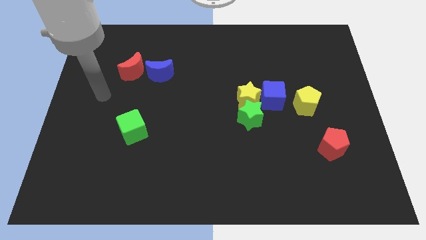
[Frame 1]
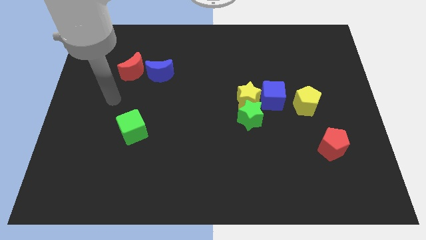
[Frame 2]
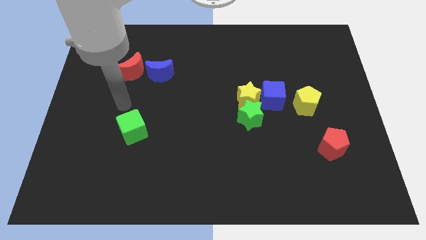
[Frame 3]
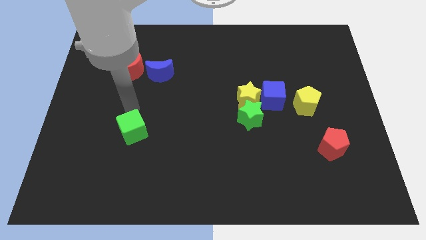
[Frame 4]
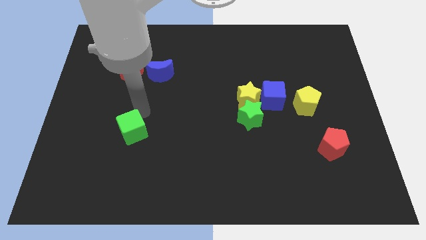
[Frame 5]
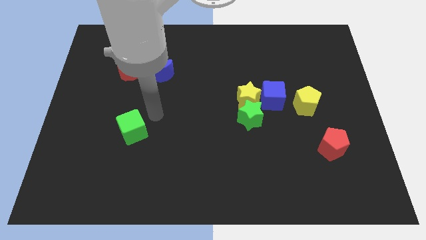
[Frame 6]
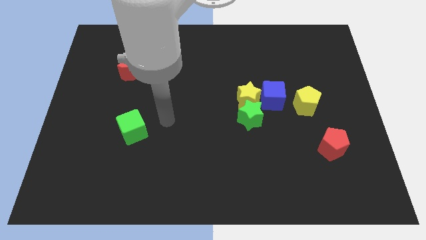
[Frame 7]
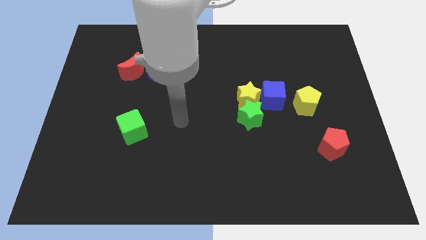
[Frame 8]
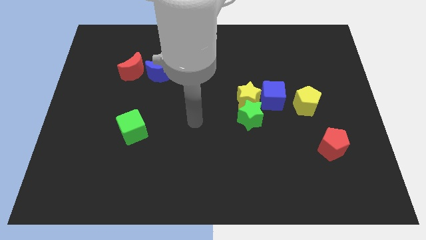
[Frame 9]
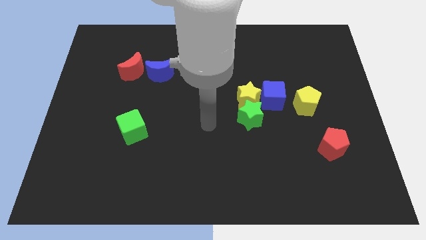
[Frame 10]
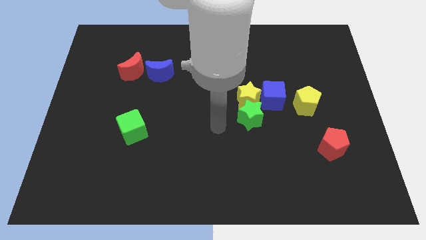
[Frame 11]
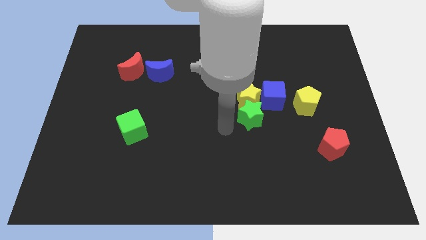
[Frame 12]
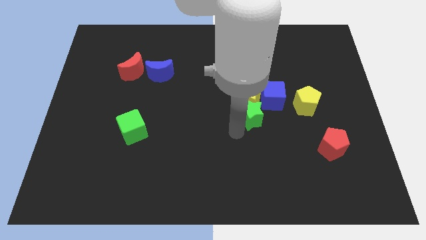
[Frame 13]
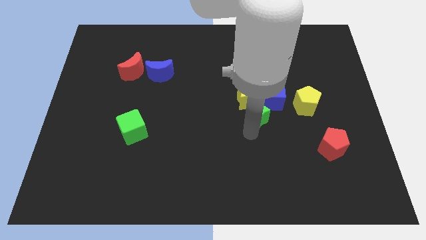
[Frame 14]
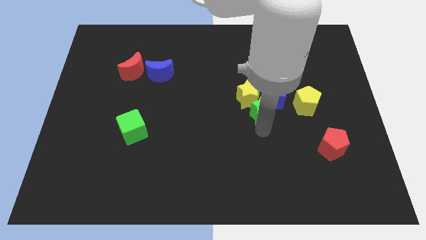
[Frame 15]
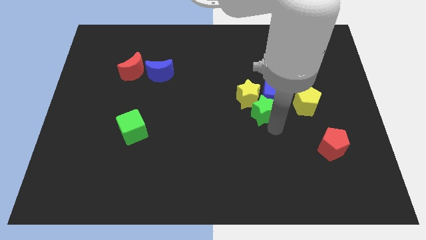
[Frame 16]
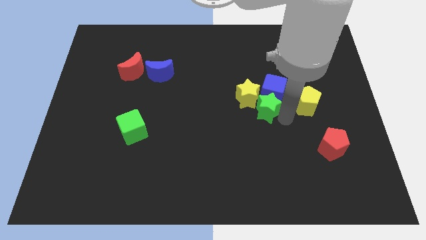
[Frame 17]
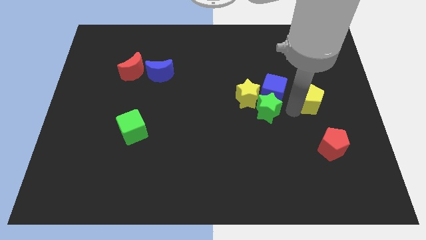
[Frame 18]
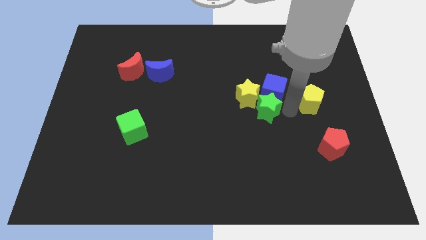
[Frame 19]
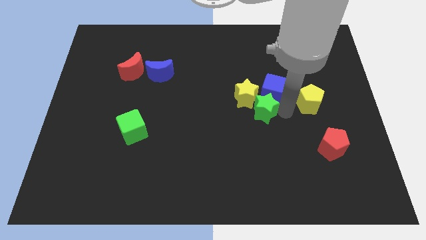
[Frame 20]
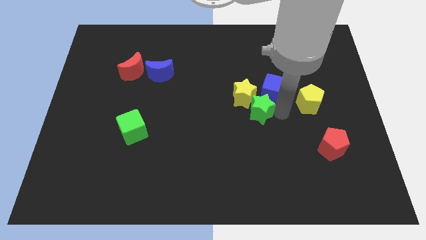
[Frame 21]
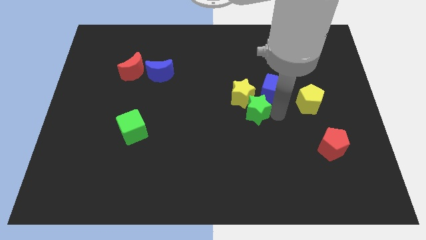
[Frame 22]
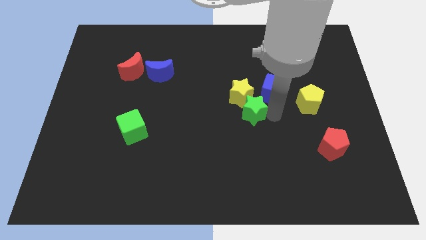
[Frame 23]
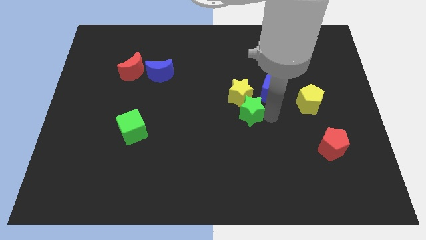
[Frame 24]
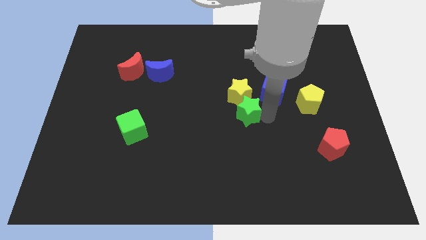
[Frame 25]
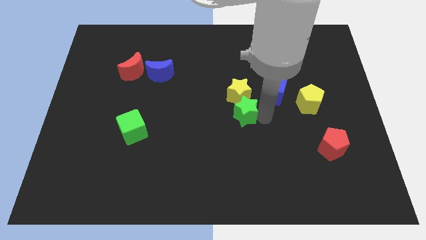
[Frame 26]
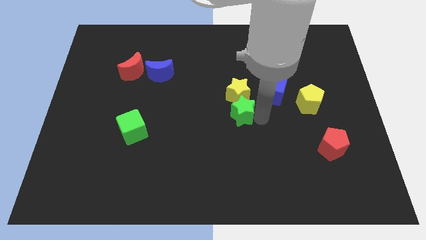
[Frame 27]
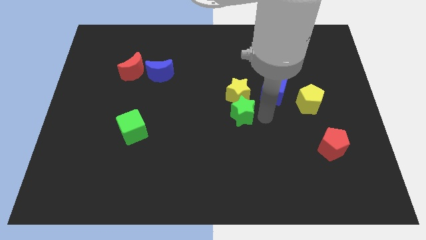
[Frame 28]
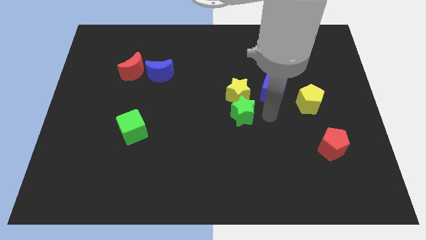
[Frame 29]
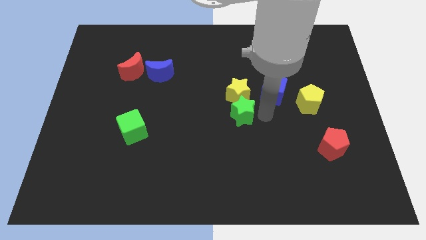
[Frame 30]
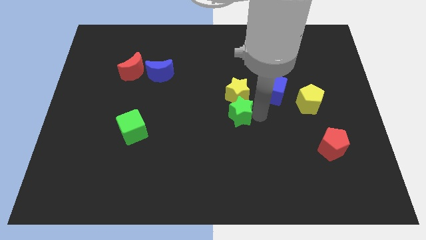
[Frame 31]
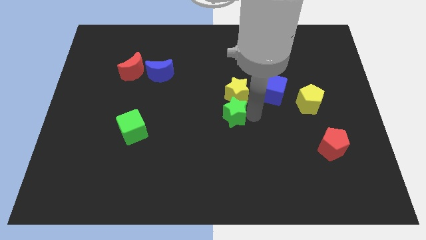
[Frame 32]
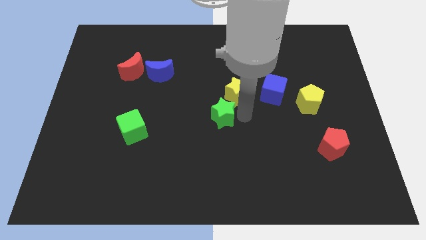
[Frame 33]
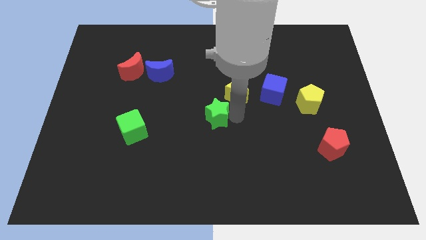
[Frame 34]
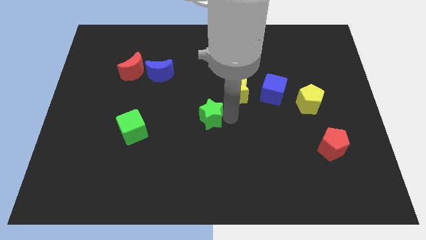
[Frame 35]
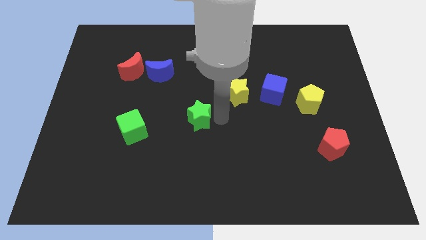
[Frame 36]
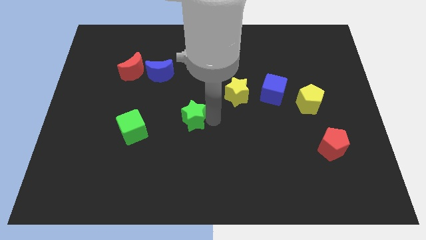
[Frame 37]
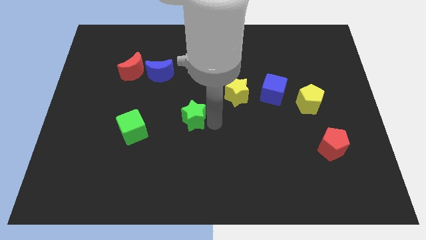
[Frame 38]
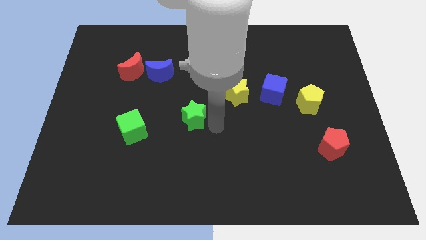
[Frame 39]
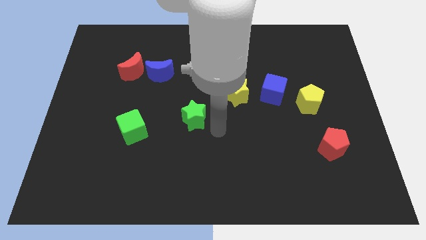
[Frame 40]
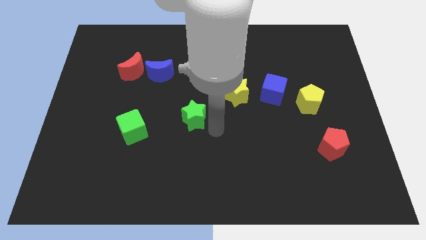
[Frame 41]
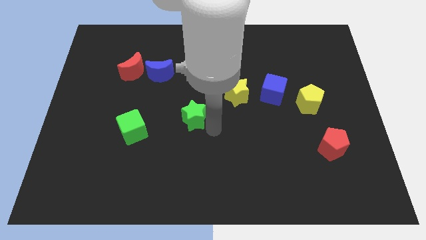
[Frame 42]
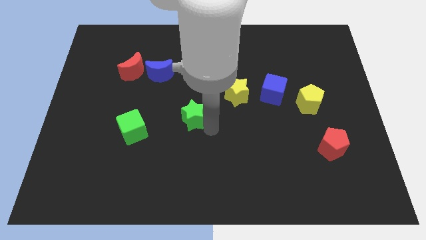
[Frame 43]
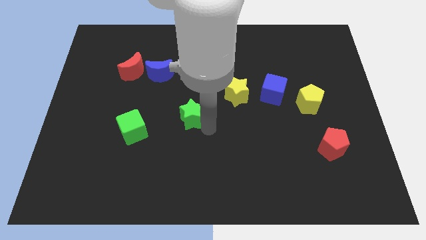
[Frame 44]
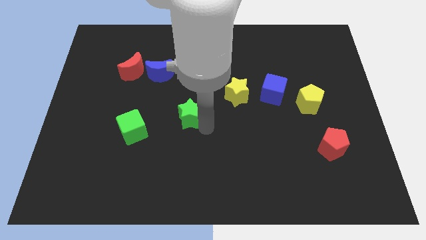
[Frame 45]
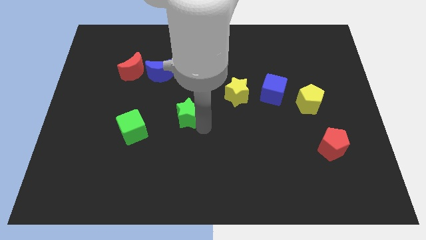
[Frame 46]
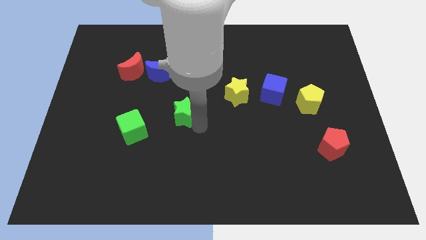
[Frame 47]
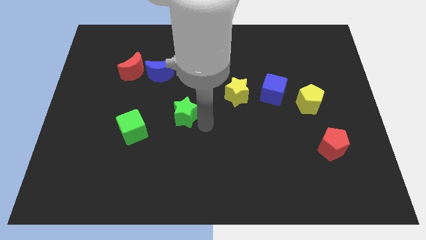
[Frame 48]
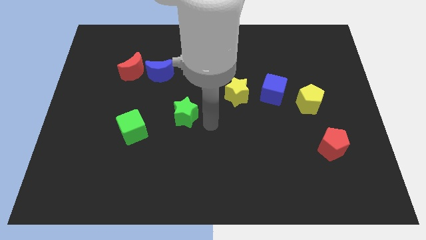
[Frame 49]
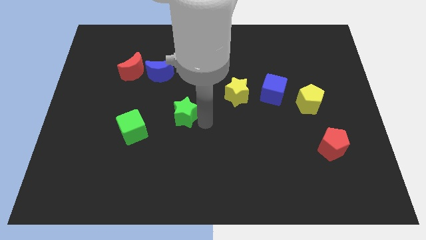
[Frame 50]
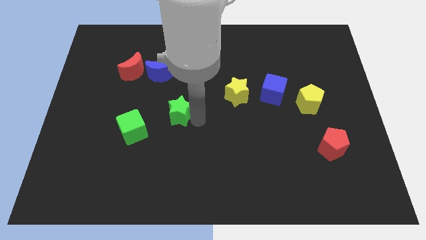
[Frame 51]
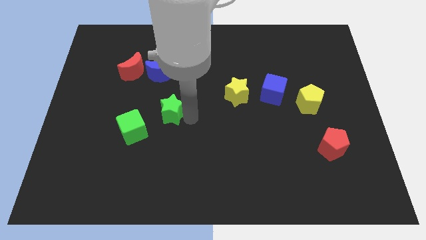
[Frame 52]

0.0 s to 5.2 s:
slide the green star to the bottom side of the blue moon

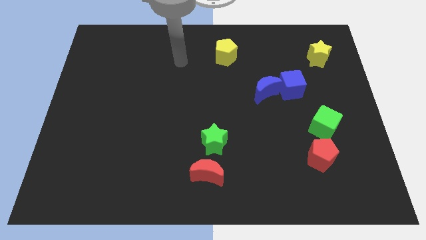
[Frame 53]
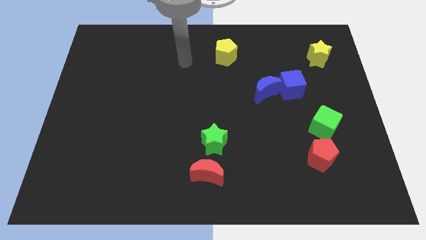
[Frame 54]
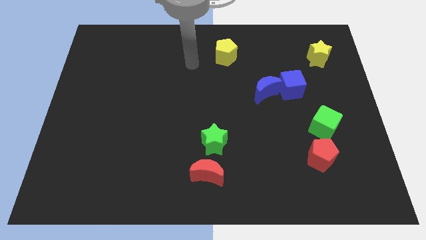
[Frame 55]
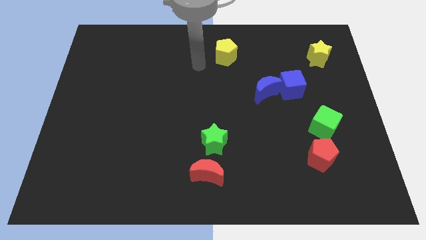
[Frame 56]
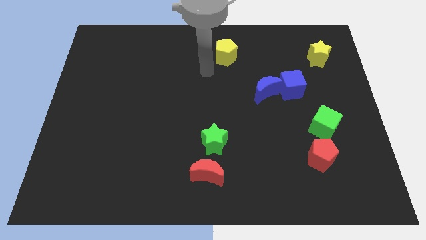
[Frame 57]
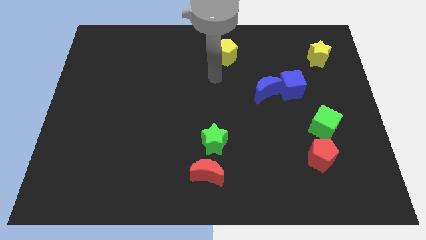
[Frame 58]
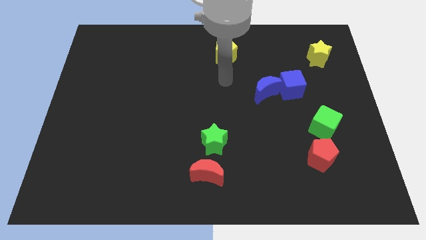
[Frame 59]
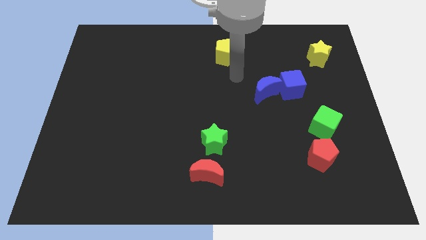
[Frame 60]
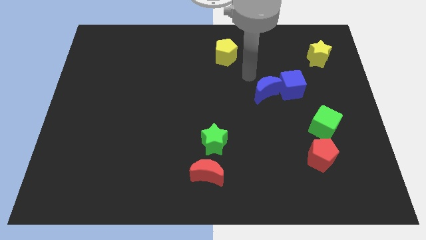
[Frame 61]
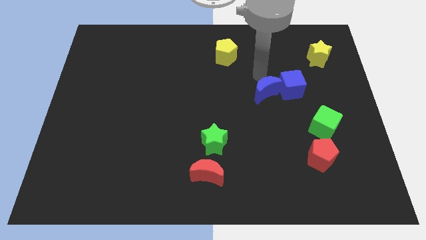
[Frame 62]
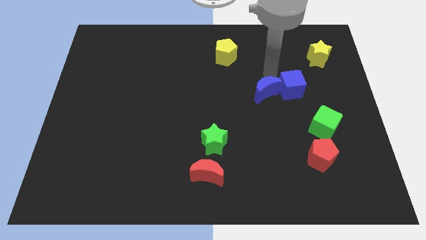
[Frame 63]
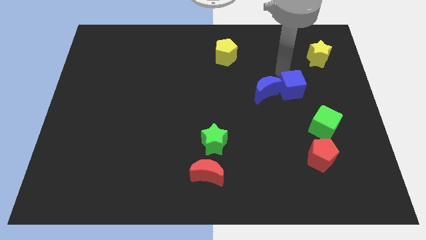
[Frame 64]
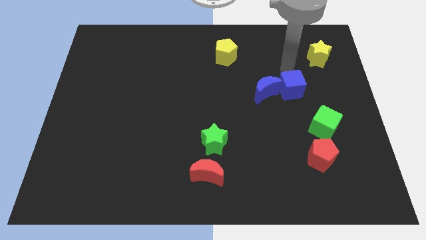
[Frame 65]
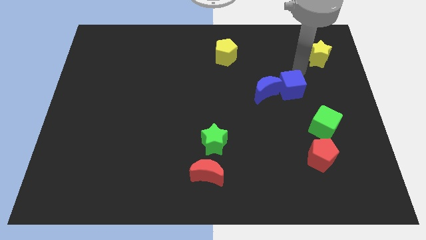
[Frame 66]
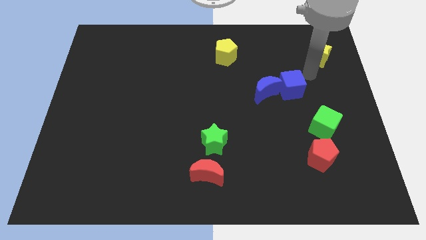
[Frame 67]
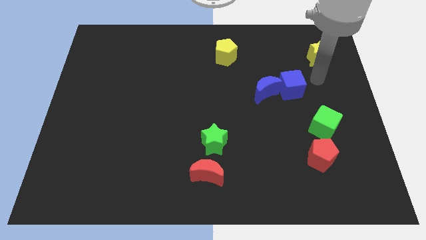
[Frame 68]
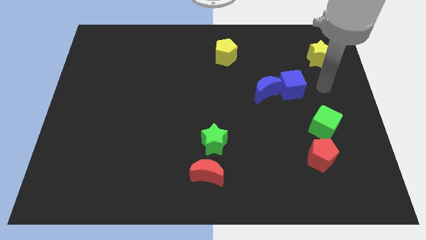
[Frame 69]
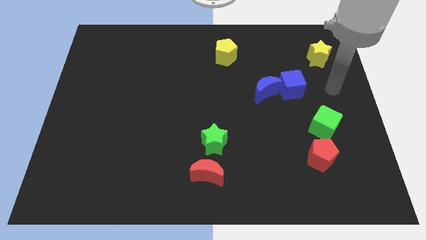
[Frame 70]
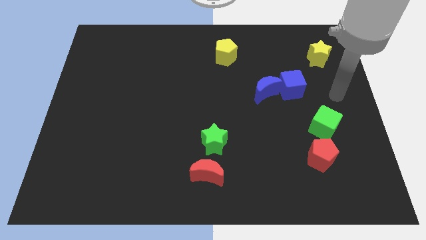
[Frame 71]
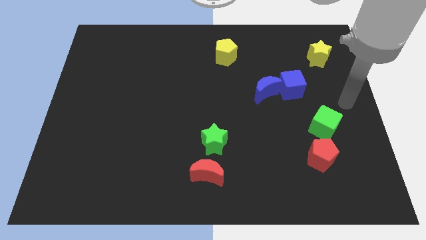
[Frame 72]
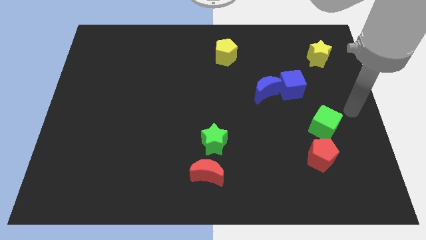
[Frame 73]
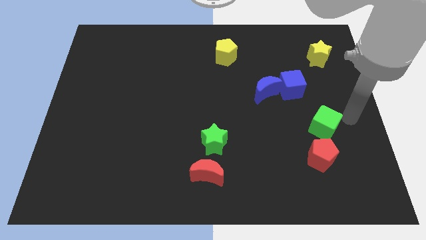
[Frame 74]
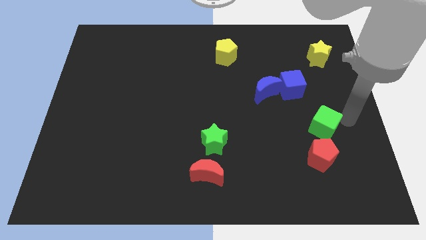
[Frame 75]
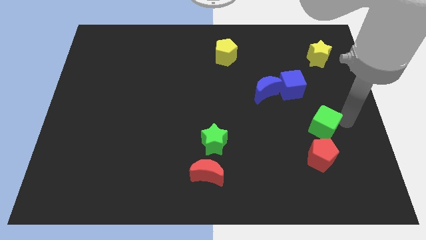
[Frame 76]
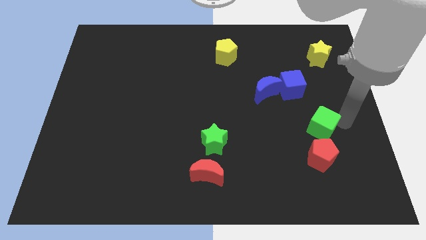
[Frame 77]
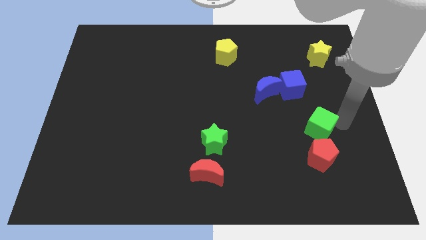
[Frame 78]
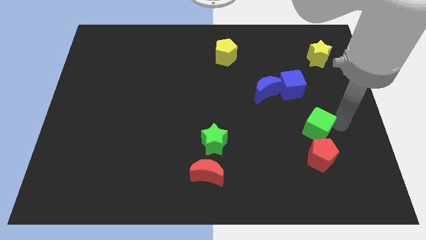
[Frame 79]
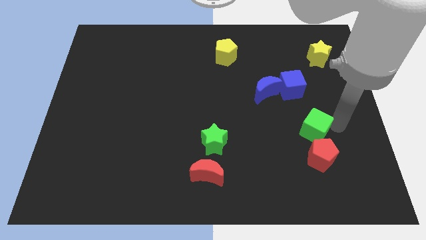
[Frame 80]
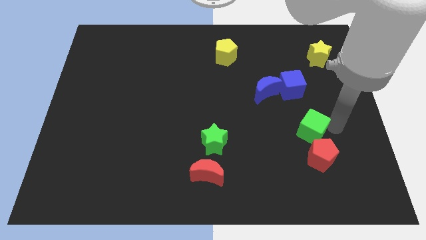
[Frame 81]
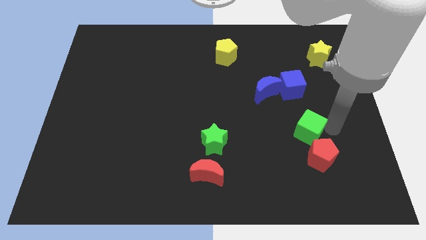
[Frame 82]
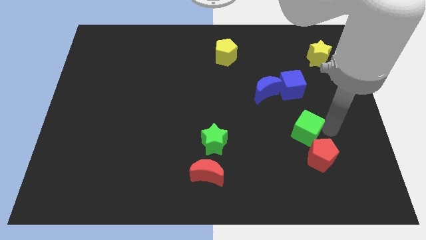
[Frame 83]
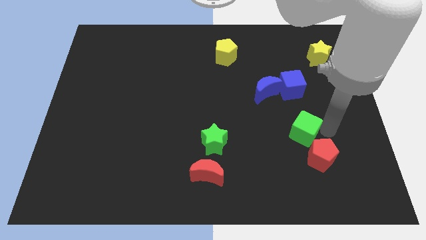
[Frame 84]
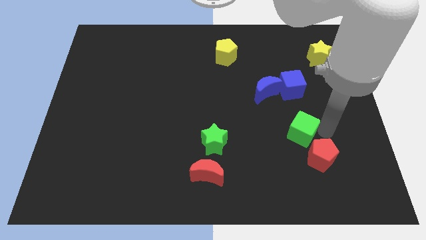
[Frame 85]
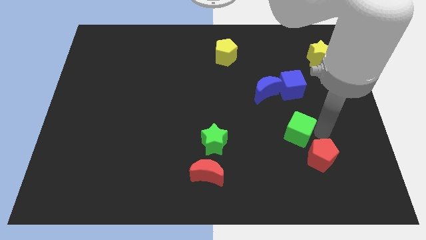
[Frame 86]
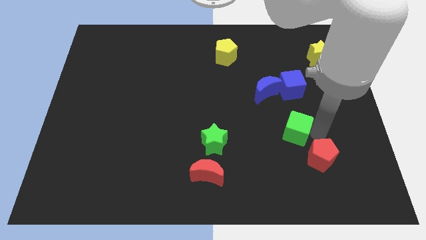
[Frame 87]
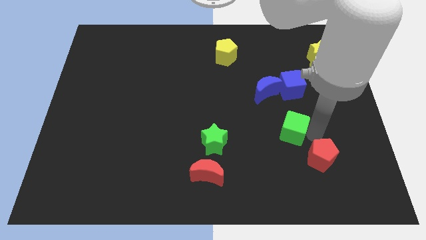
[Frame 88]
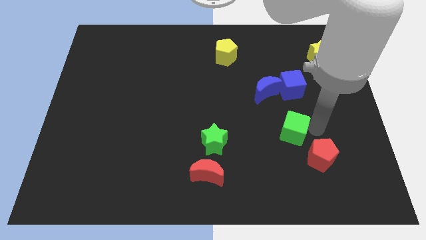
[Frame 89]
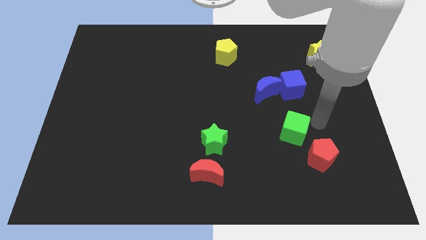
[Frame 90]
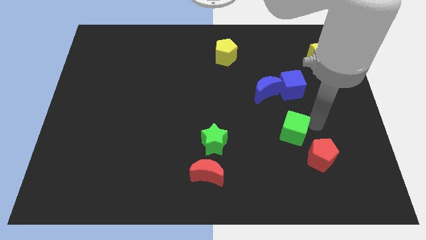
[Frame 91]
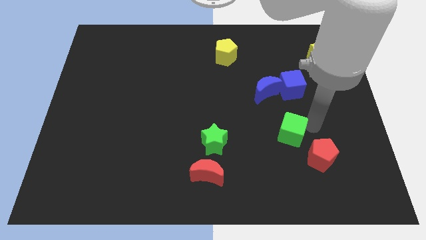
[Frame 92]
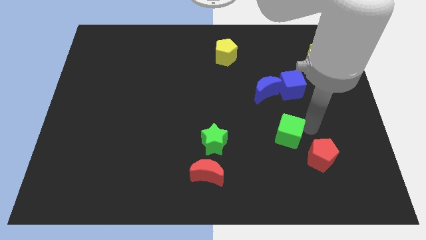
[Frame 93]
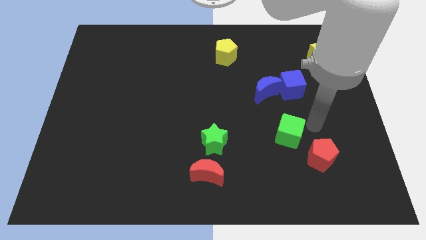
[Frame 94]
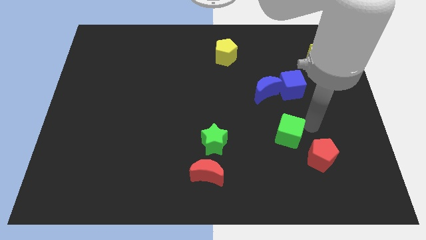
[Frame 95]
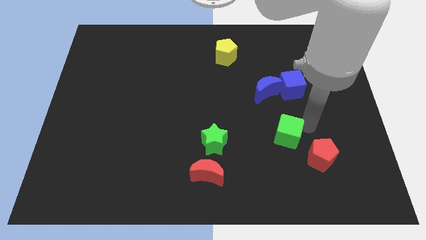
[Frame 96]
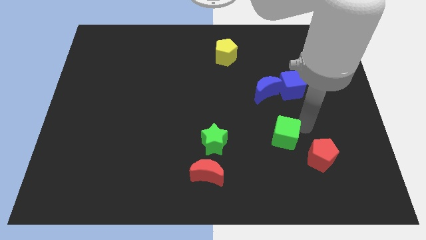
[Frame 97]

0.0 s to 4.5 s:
move the green cube just right of the green star
